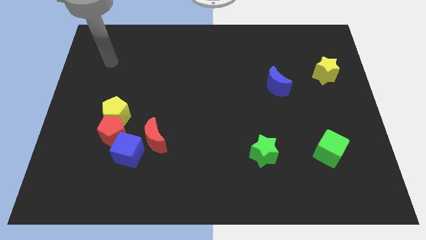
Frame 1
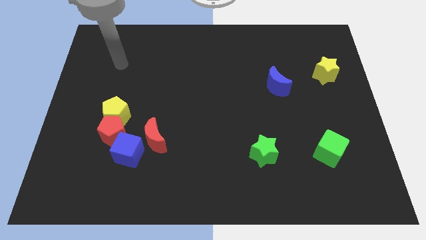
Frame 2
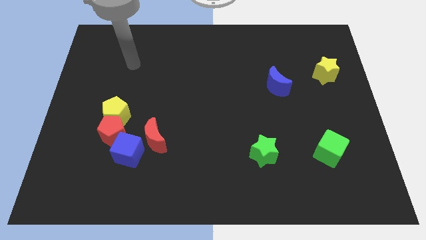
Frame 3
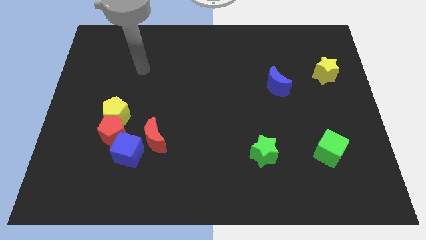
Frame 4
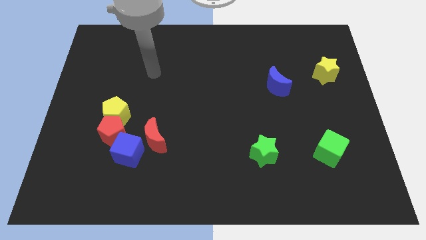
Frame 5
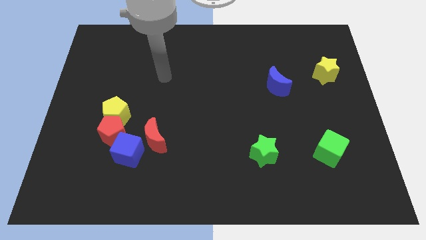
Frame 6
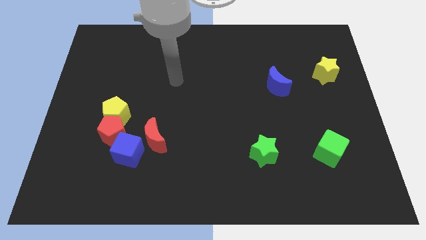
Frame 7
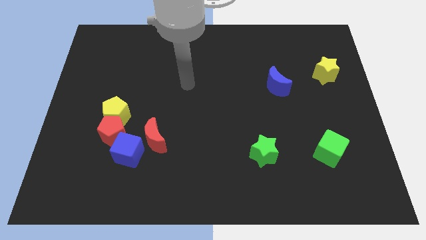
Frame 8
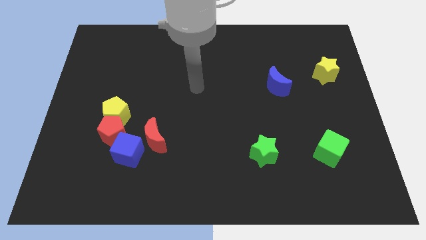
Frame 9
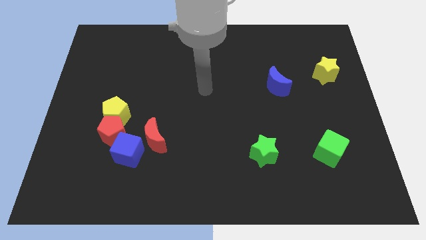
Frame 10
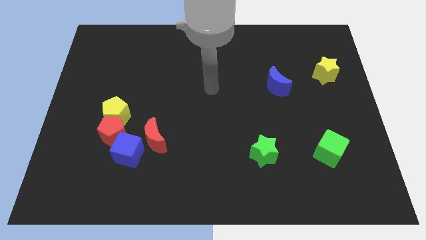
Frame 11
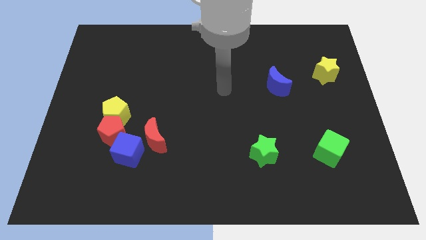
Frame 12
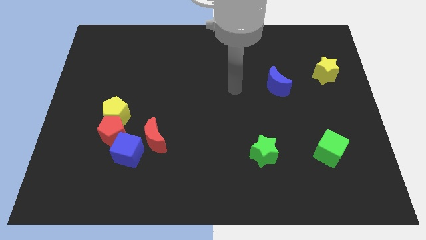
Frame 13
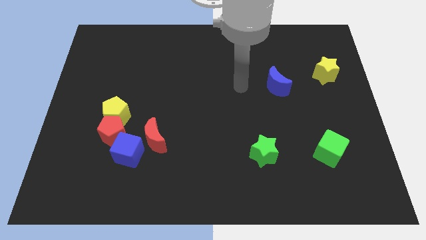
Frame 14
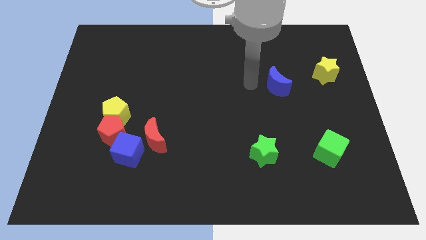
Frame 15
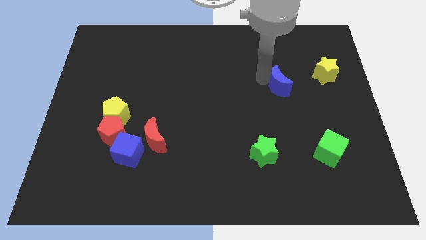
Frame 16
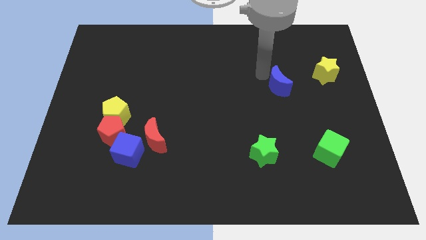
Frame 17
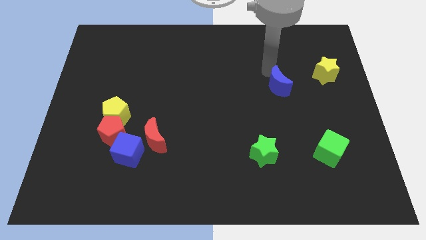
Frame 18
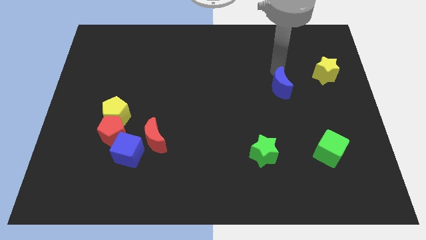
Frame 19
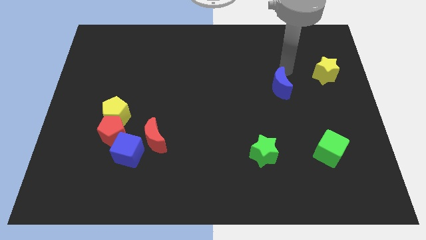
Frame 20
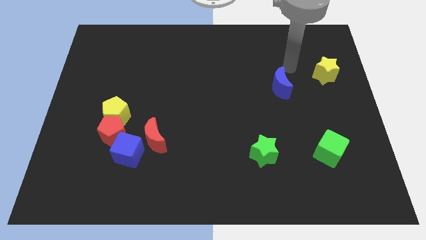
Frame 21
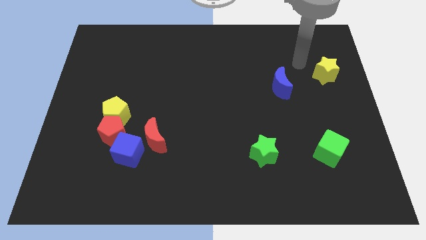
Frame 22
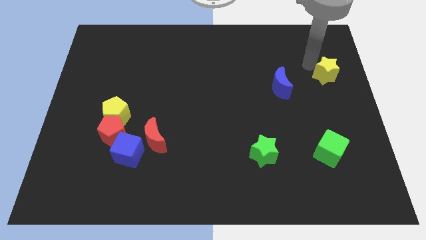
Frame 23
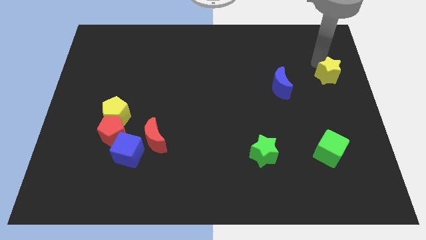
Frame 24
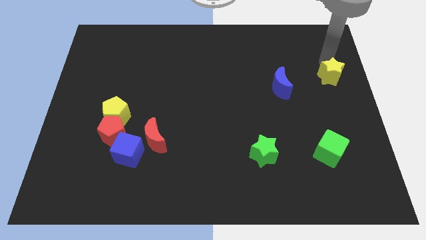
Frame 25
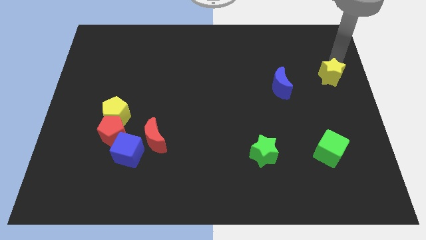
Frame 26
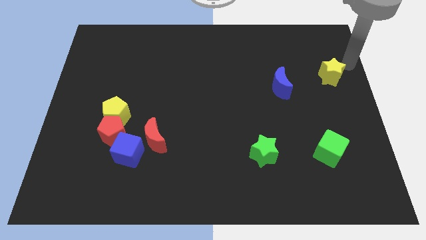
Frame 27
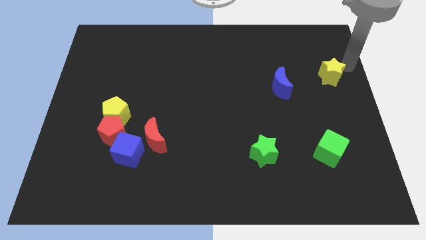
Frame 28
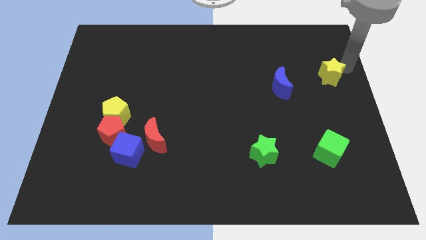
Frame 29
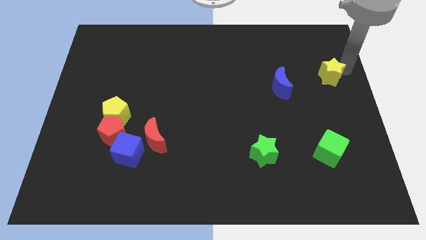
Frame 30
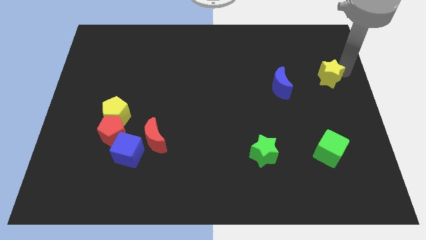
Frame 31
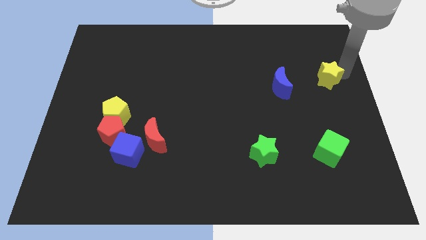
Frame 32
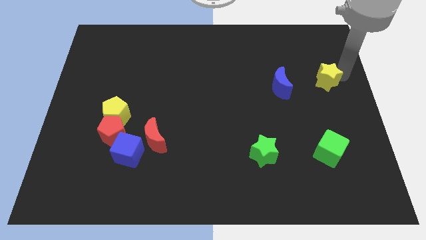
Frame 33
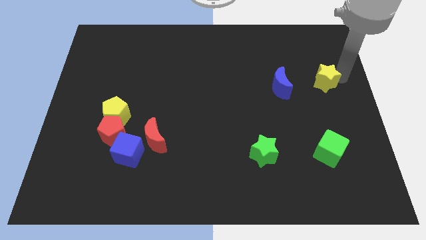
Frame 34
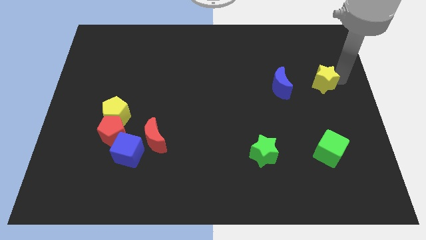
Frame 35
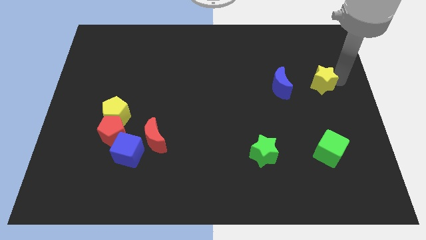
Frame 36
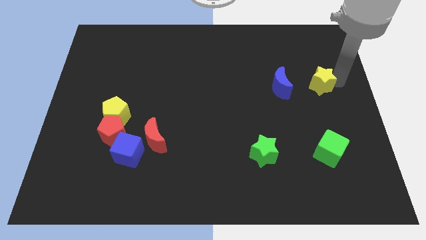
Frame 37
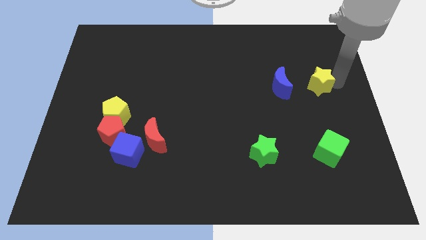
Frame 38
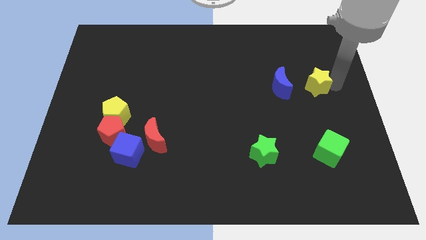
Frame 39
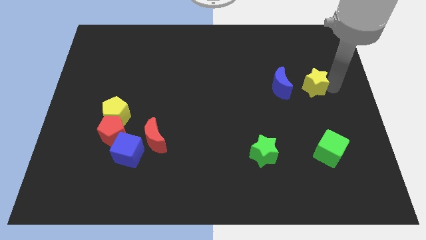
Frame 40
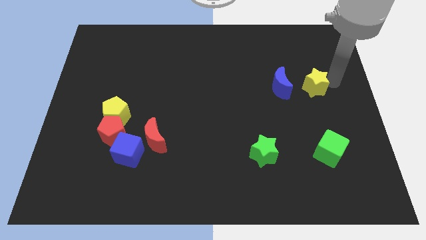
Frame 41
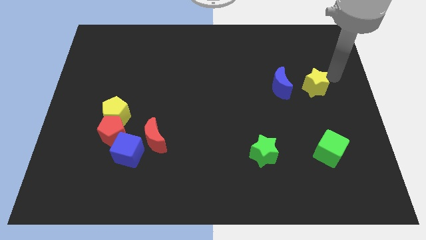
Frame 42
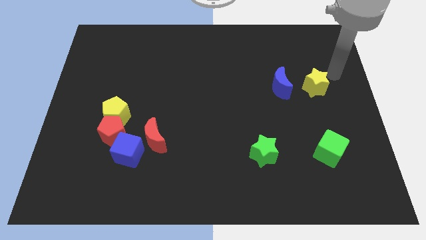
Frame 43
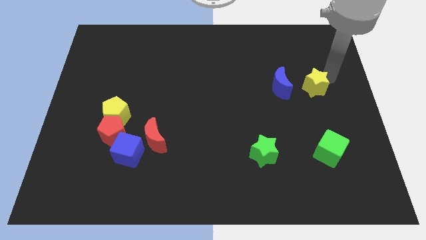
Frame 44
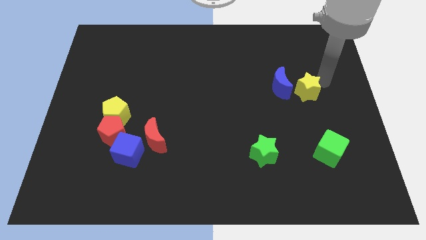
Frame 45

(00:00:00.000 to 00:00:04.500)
move the yellow star slightly down and then left

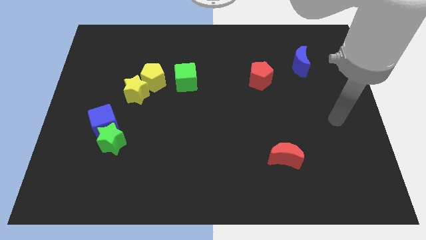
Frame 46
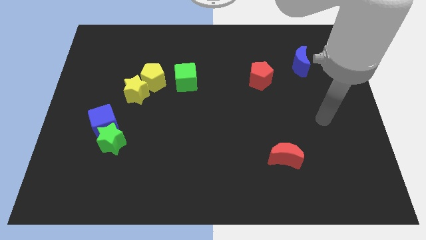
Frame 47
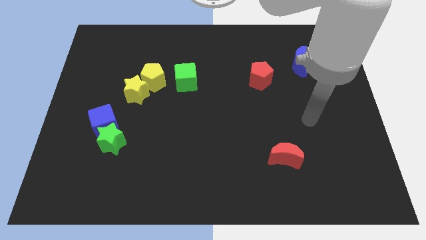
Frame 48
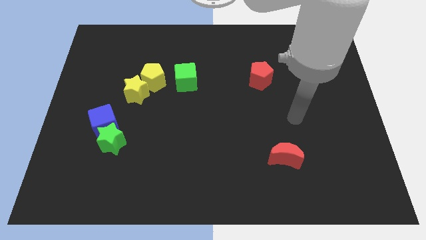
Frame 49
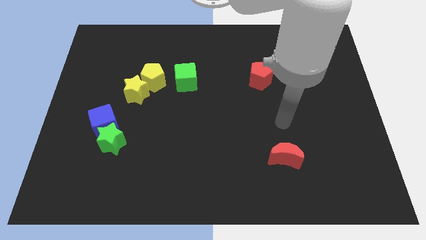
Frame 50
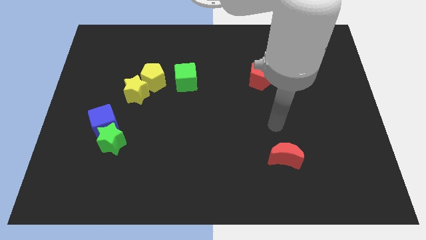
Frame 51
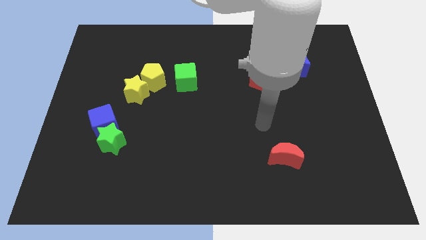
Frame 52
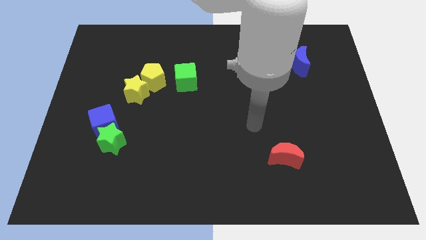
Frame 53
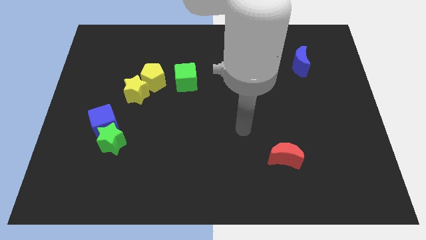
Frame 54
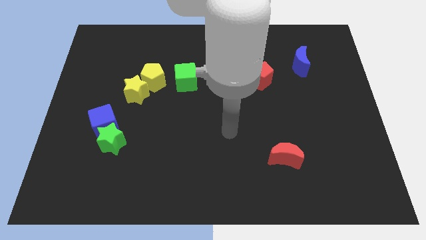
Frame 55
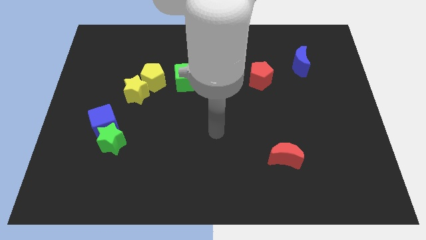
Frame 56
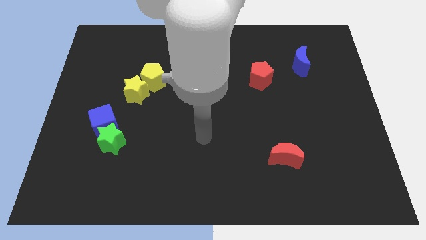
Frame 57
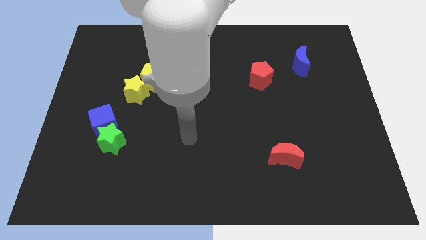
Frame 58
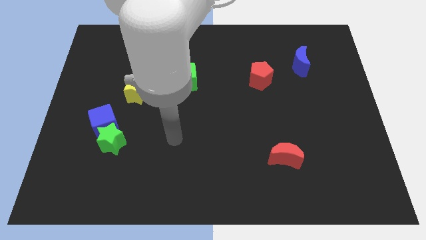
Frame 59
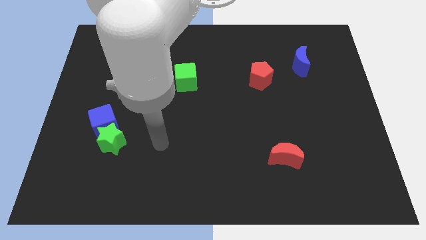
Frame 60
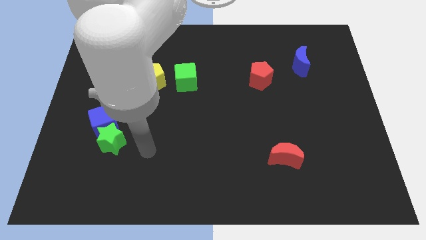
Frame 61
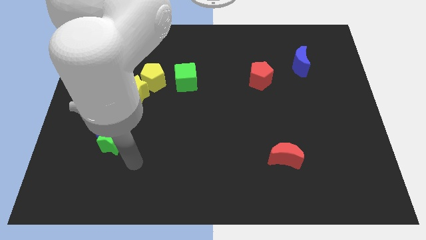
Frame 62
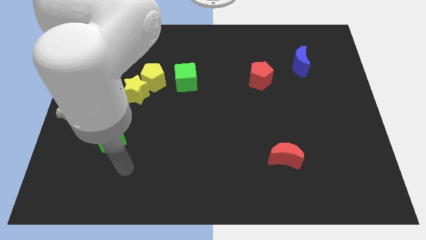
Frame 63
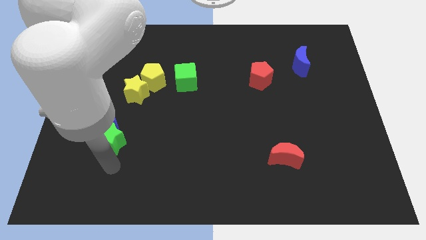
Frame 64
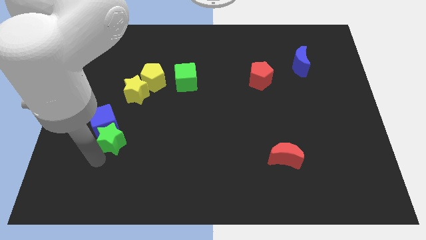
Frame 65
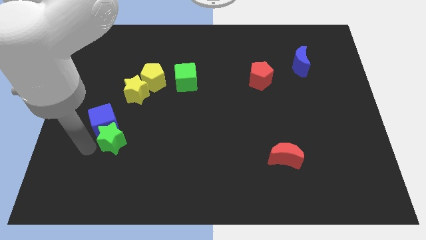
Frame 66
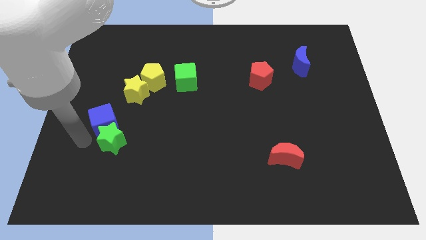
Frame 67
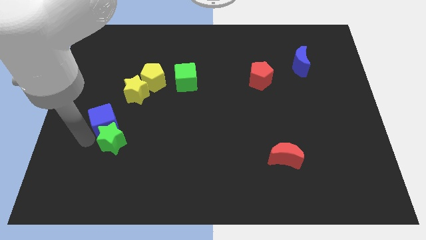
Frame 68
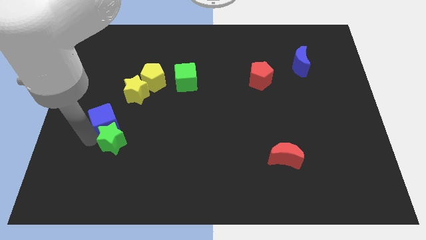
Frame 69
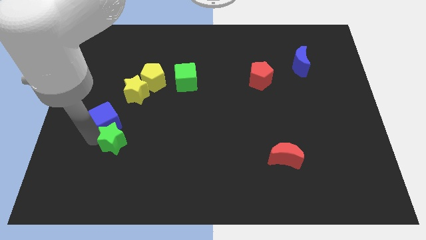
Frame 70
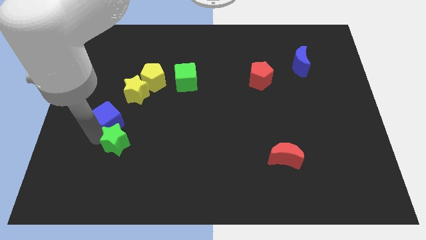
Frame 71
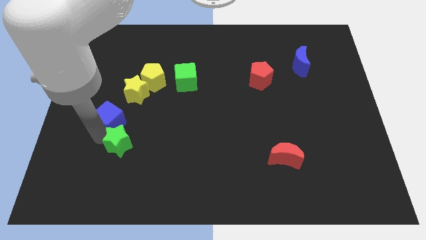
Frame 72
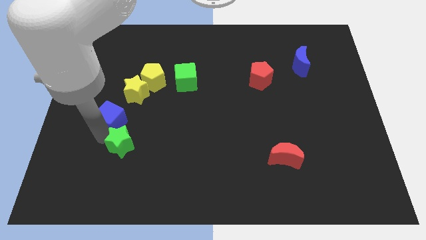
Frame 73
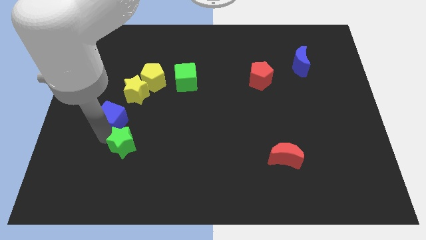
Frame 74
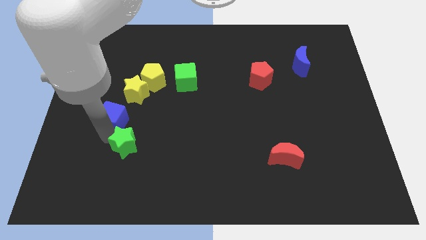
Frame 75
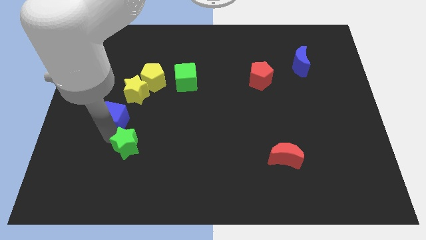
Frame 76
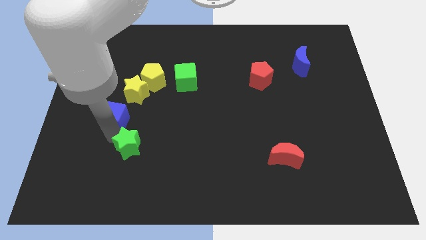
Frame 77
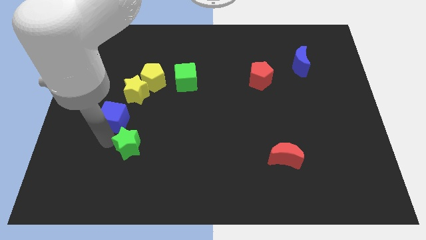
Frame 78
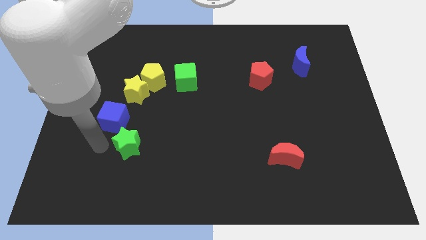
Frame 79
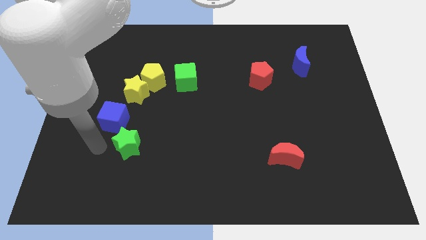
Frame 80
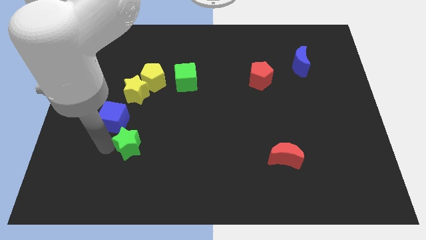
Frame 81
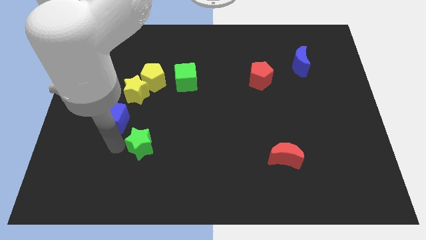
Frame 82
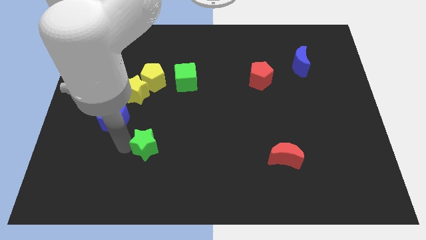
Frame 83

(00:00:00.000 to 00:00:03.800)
slightly move the green star to the right
